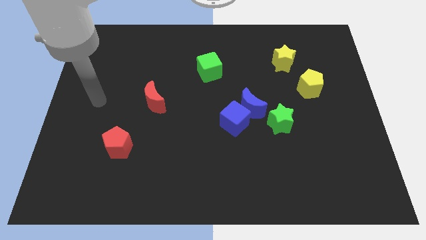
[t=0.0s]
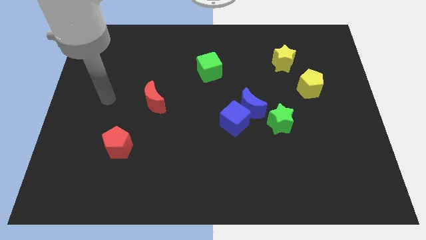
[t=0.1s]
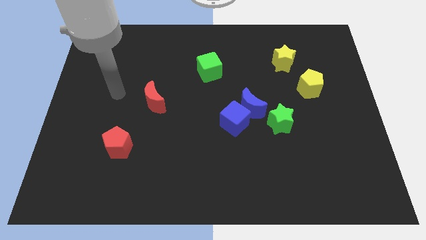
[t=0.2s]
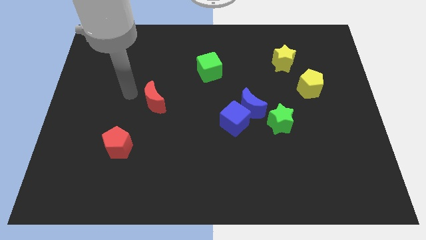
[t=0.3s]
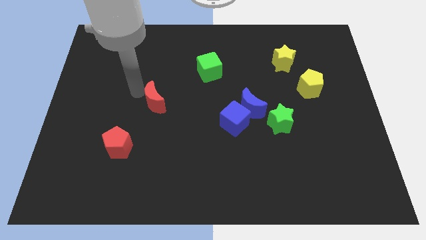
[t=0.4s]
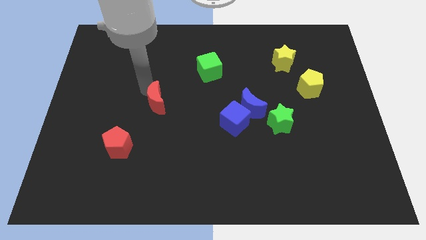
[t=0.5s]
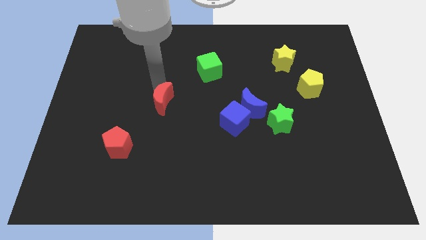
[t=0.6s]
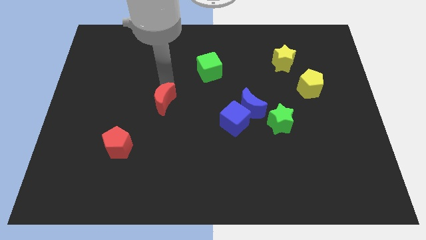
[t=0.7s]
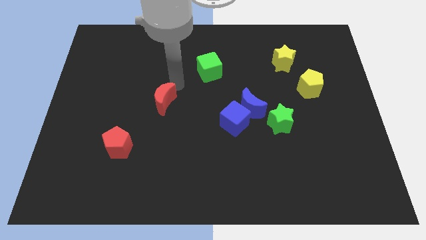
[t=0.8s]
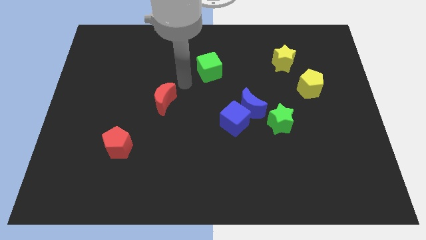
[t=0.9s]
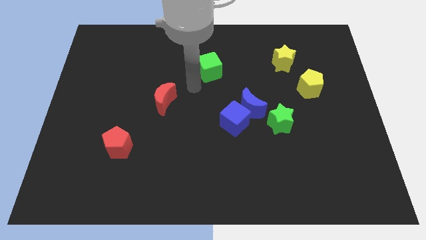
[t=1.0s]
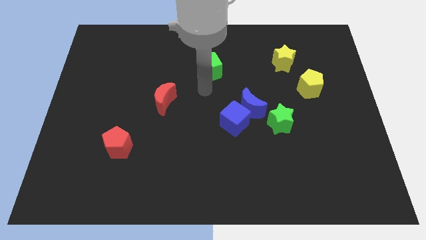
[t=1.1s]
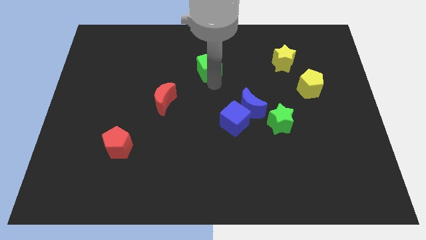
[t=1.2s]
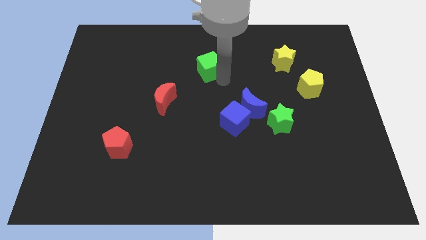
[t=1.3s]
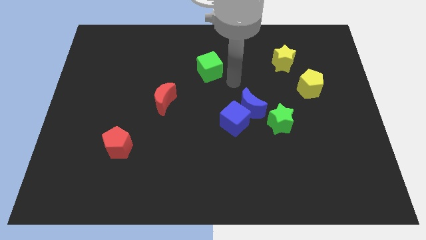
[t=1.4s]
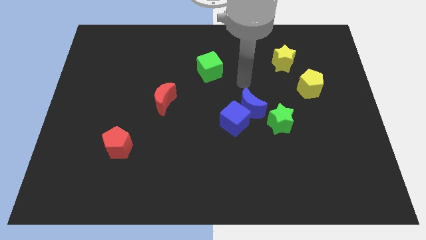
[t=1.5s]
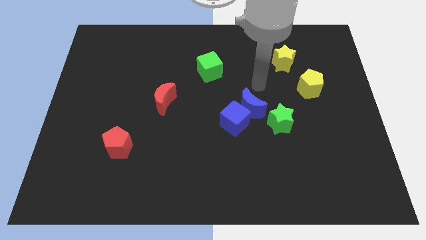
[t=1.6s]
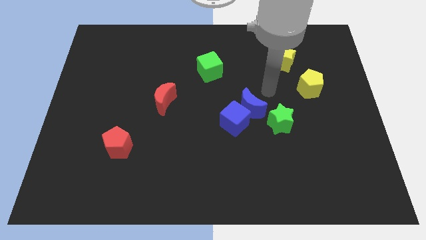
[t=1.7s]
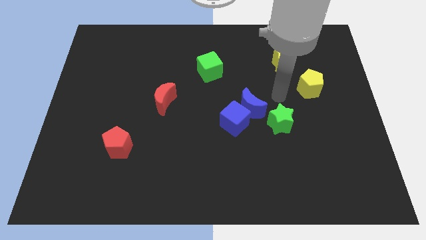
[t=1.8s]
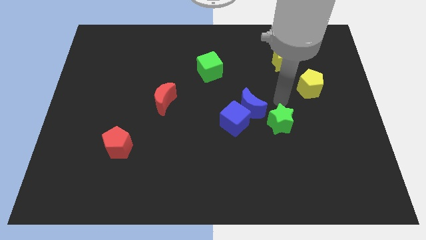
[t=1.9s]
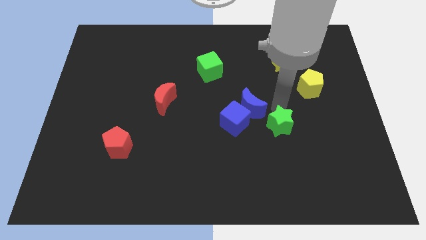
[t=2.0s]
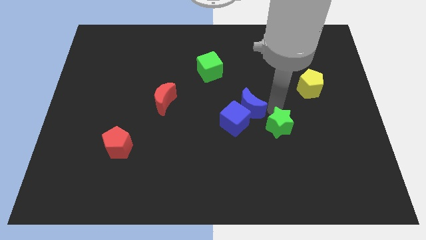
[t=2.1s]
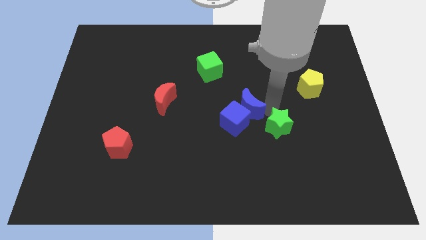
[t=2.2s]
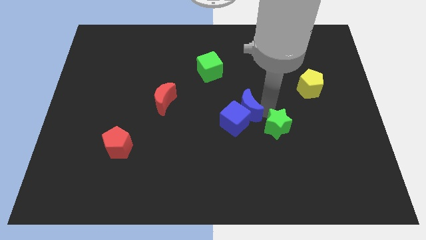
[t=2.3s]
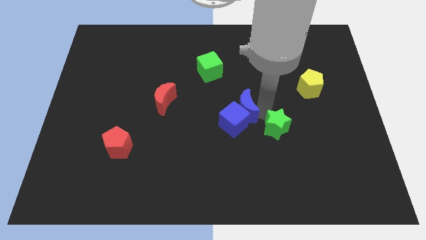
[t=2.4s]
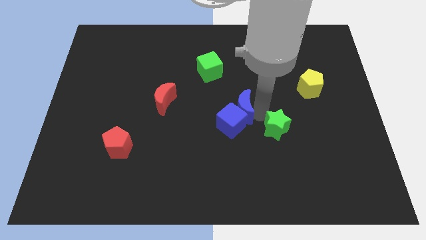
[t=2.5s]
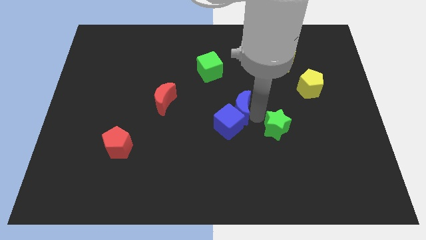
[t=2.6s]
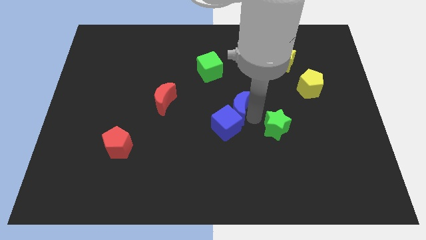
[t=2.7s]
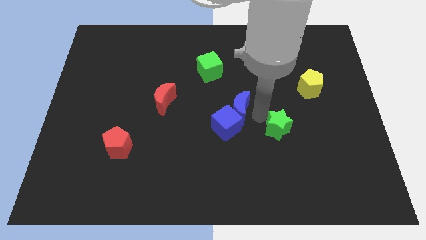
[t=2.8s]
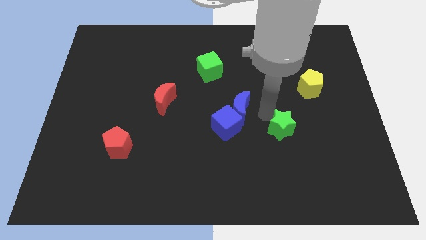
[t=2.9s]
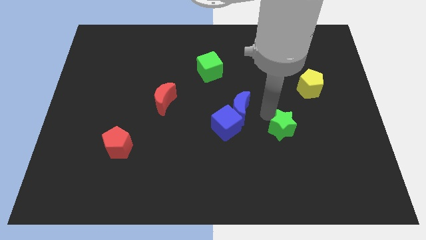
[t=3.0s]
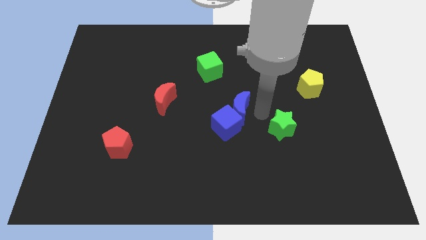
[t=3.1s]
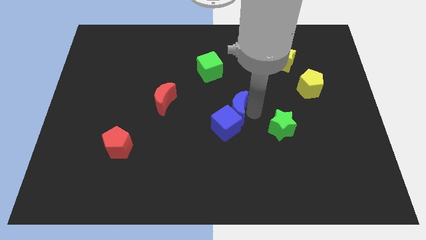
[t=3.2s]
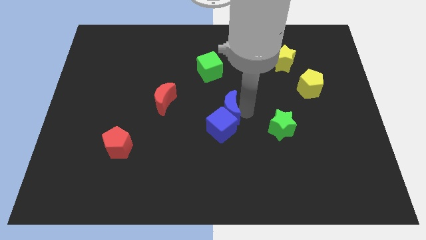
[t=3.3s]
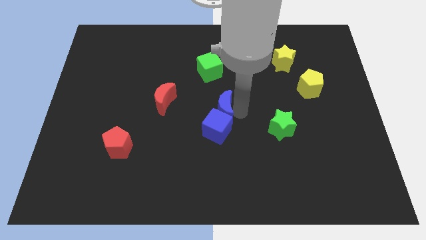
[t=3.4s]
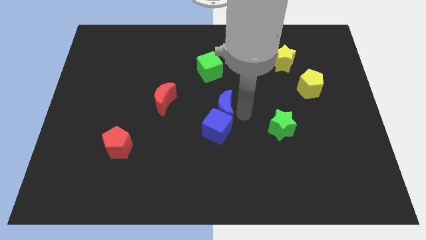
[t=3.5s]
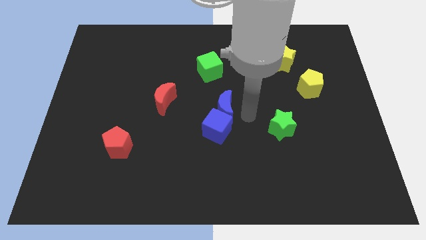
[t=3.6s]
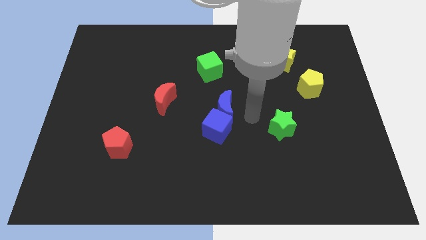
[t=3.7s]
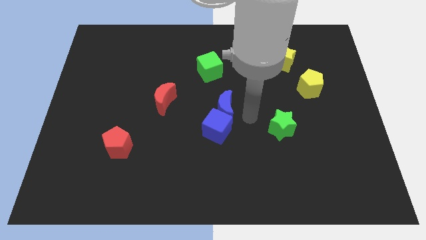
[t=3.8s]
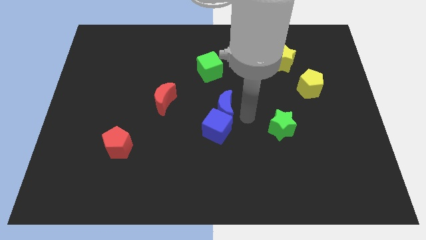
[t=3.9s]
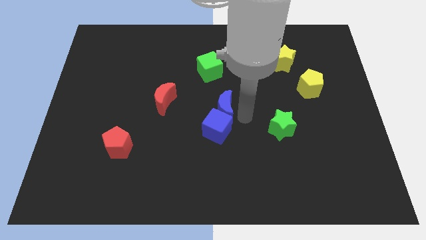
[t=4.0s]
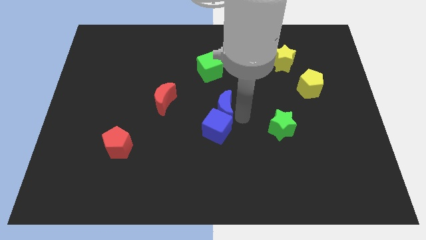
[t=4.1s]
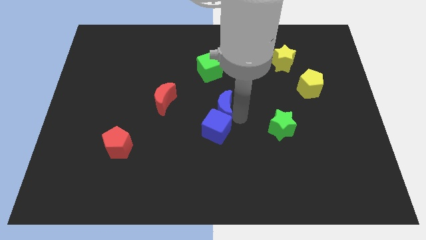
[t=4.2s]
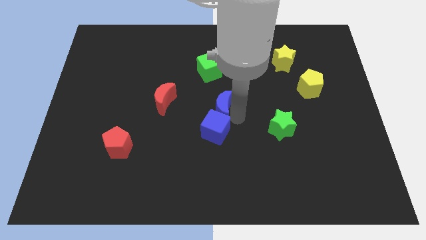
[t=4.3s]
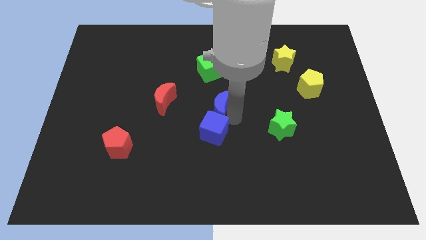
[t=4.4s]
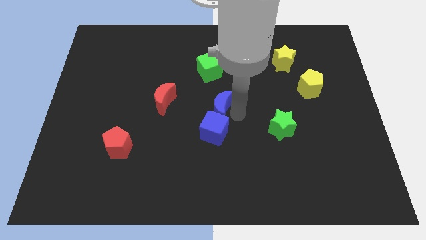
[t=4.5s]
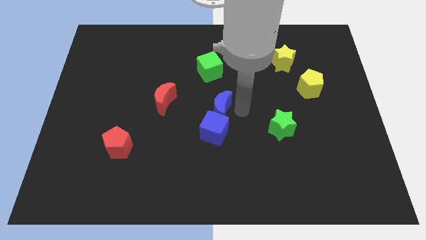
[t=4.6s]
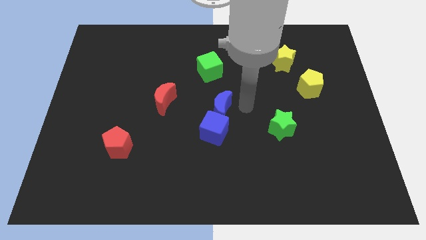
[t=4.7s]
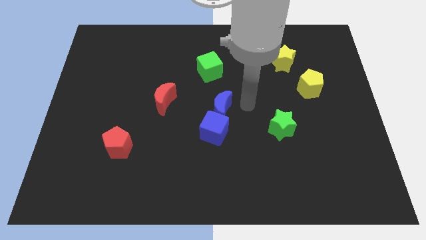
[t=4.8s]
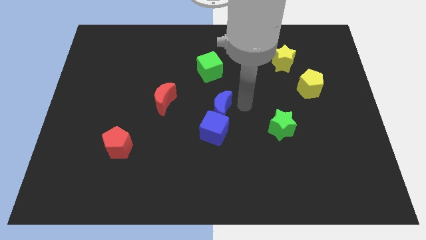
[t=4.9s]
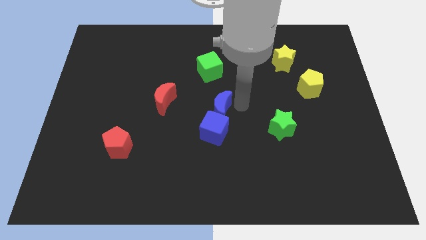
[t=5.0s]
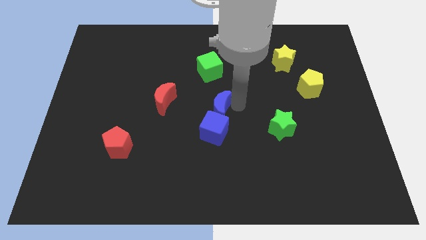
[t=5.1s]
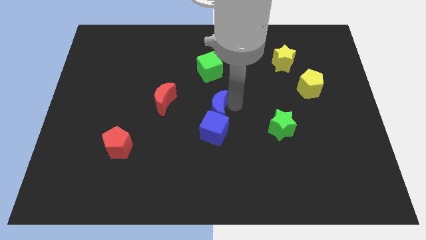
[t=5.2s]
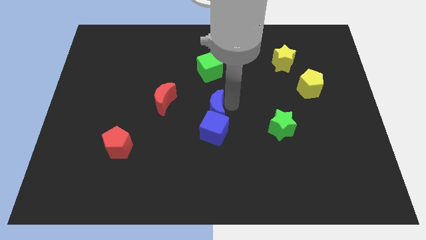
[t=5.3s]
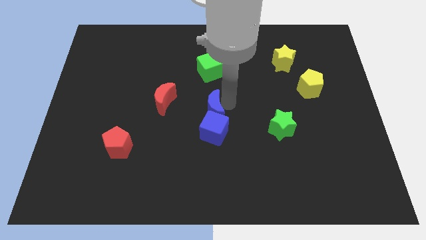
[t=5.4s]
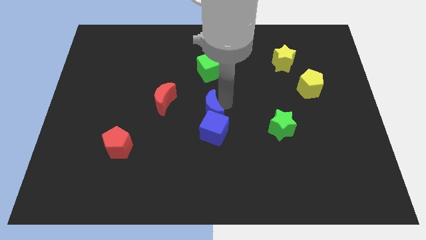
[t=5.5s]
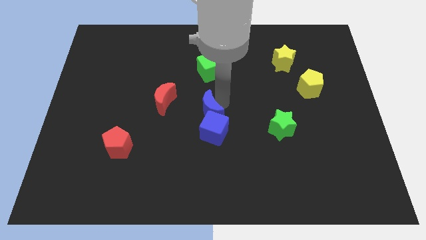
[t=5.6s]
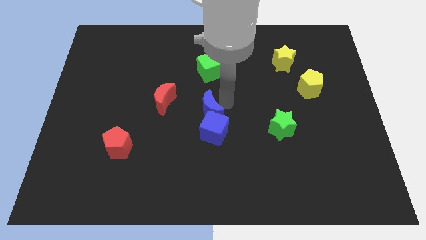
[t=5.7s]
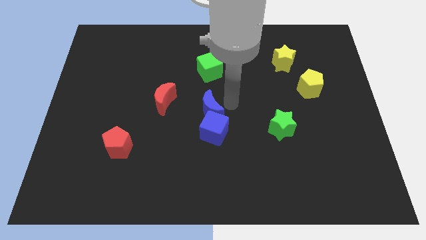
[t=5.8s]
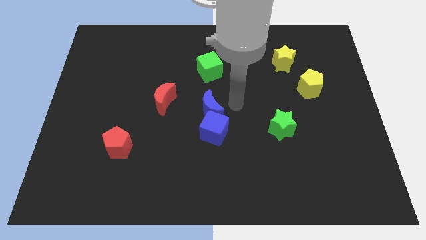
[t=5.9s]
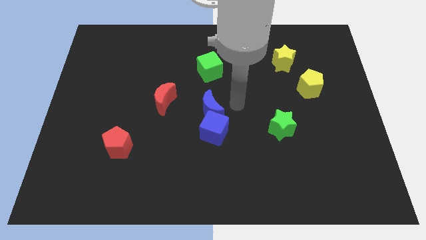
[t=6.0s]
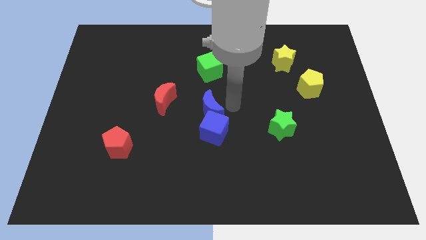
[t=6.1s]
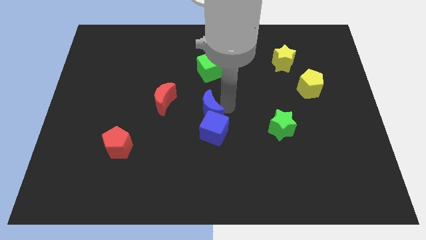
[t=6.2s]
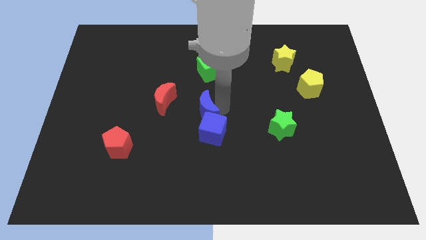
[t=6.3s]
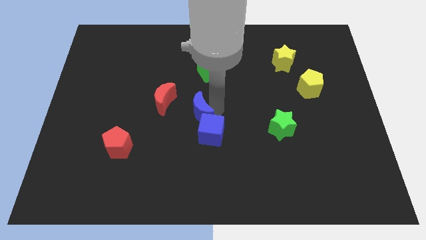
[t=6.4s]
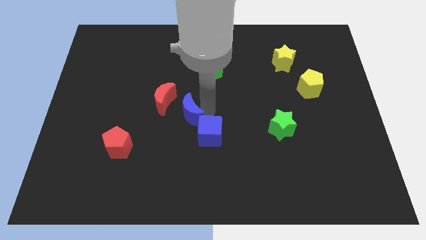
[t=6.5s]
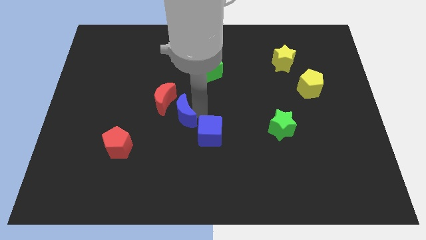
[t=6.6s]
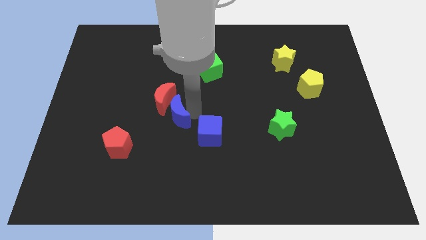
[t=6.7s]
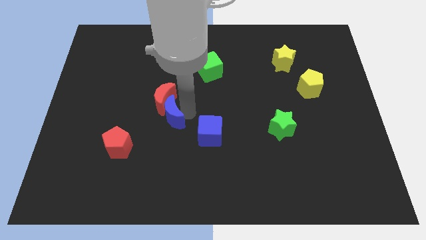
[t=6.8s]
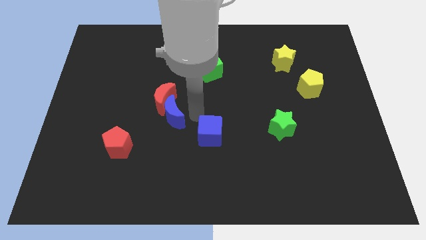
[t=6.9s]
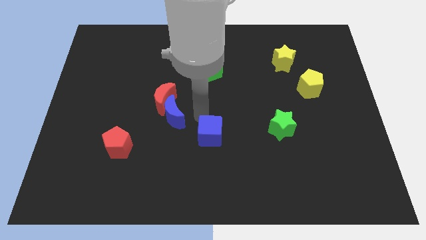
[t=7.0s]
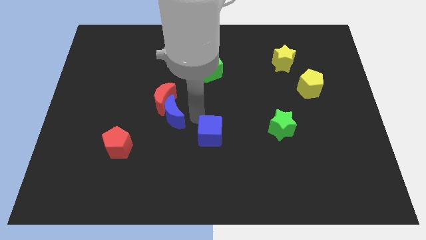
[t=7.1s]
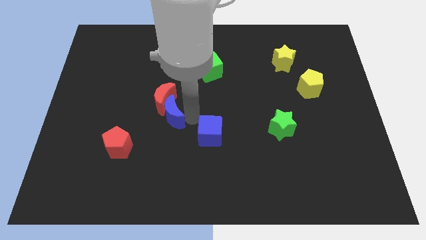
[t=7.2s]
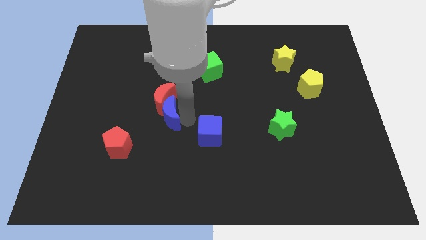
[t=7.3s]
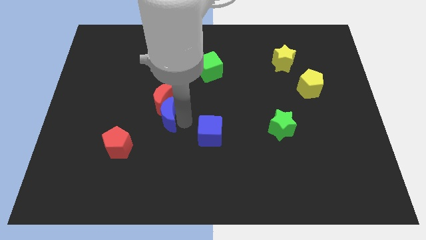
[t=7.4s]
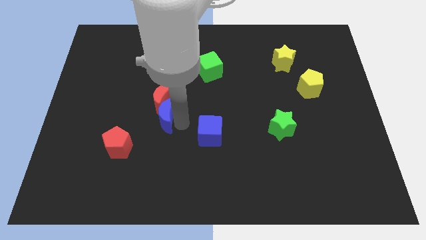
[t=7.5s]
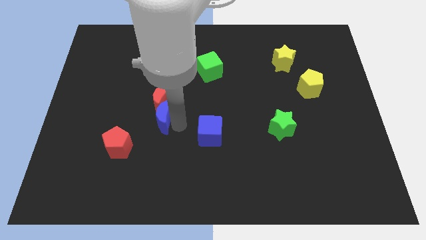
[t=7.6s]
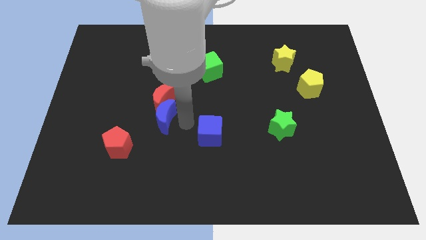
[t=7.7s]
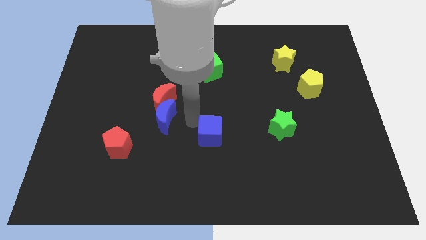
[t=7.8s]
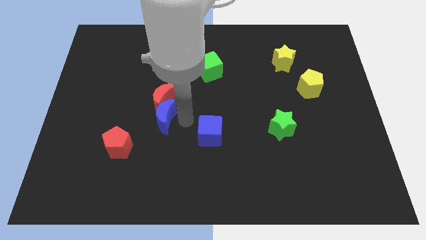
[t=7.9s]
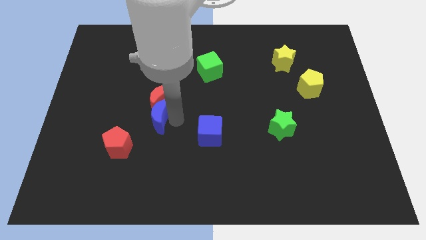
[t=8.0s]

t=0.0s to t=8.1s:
move the blue moon to the left

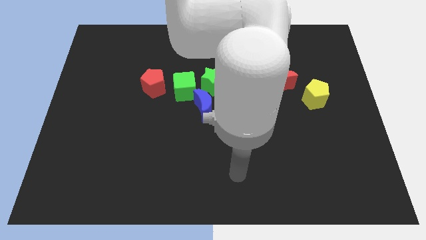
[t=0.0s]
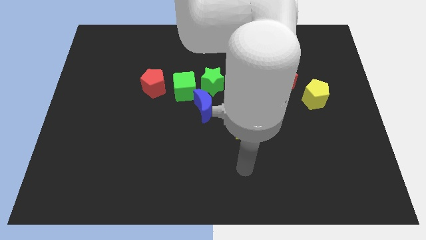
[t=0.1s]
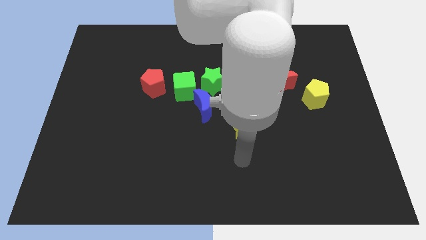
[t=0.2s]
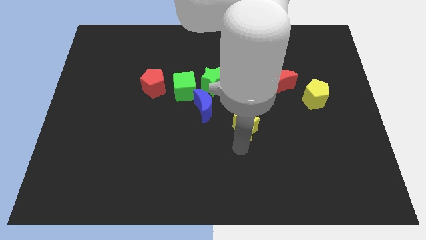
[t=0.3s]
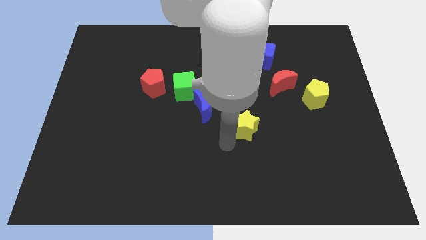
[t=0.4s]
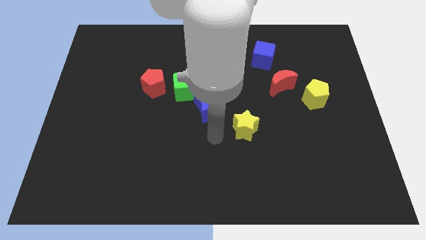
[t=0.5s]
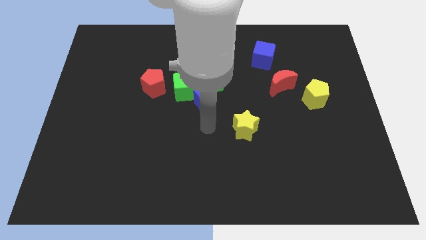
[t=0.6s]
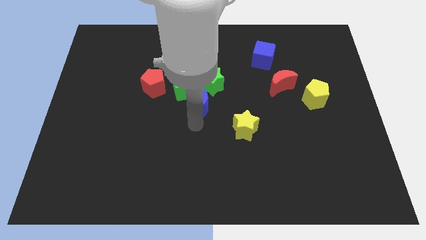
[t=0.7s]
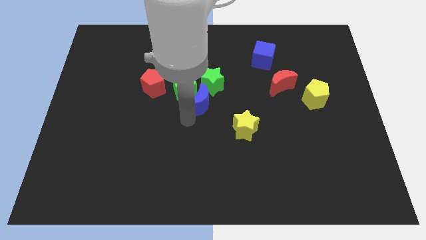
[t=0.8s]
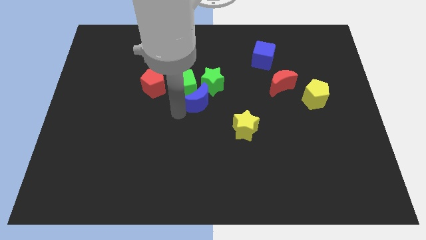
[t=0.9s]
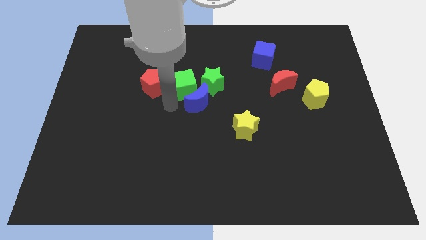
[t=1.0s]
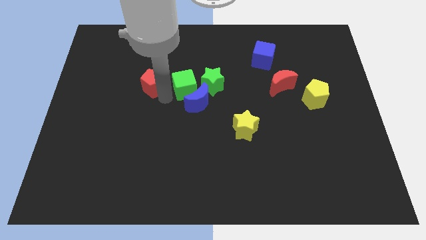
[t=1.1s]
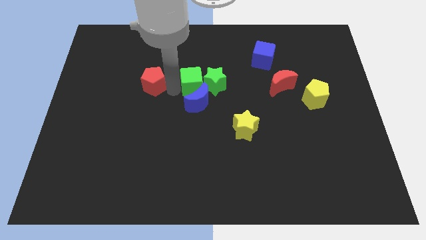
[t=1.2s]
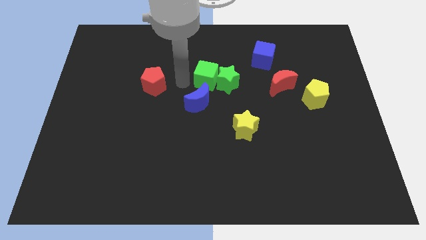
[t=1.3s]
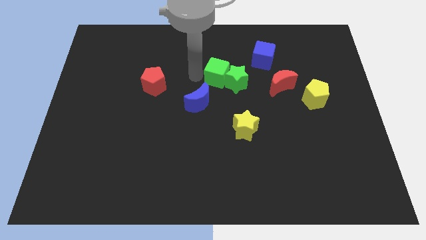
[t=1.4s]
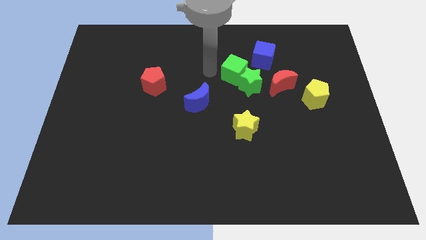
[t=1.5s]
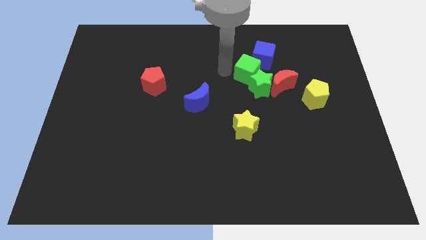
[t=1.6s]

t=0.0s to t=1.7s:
push the green star a bit diagonally down and right
